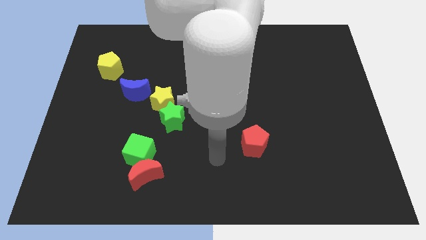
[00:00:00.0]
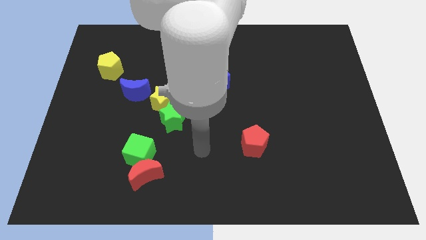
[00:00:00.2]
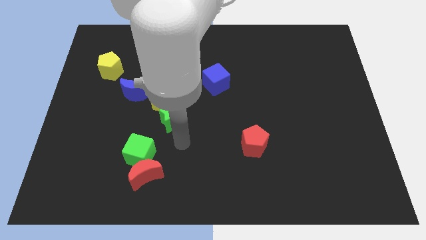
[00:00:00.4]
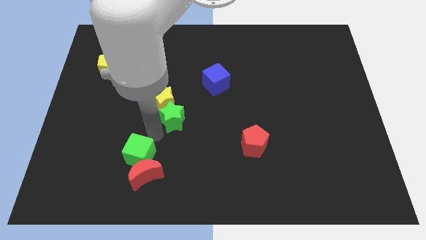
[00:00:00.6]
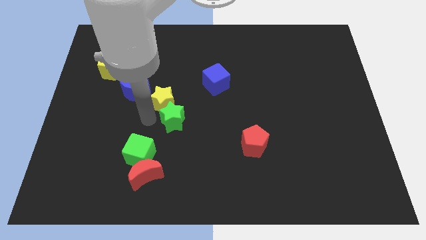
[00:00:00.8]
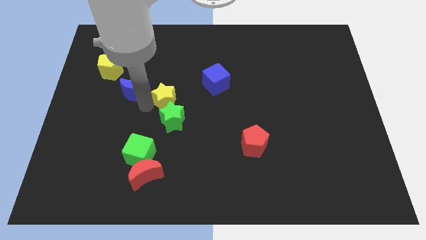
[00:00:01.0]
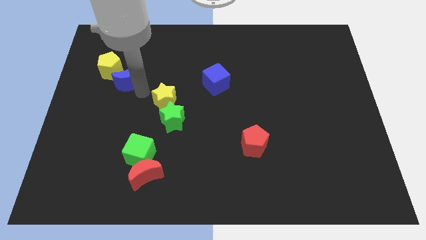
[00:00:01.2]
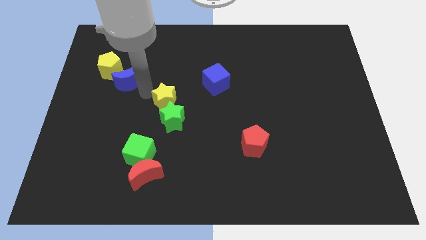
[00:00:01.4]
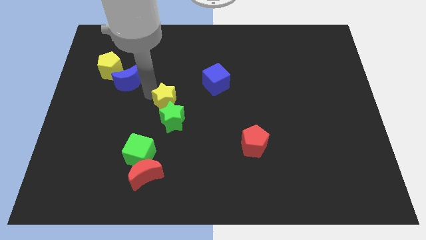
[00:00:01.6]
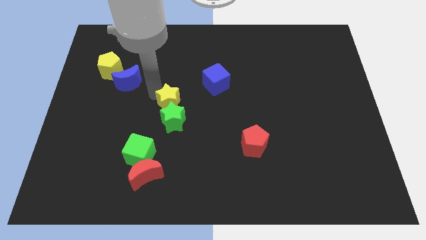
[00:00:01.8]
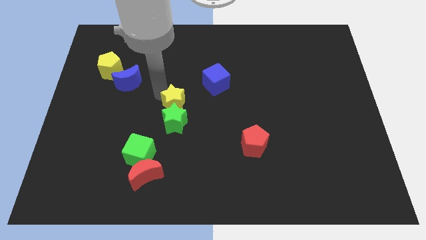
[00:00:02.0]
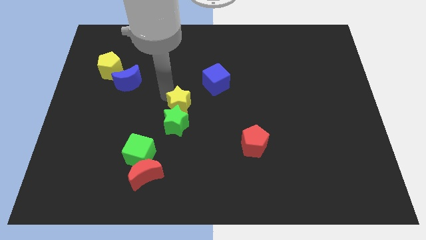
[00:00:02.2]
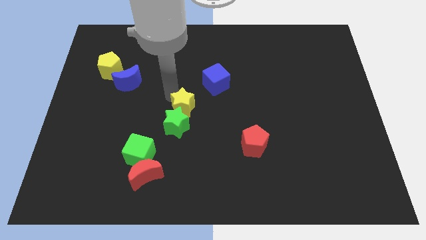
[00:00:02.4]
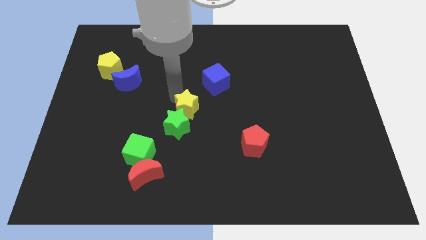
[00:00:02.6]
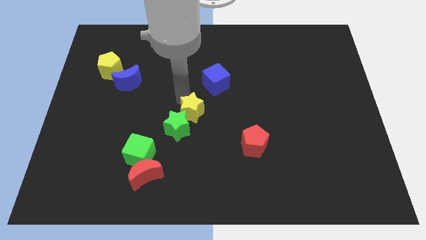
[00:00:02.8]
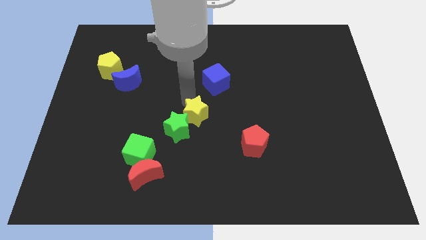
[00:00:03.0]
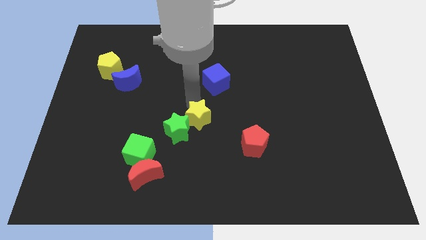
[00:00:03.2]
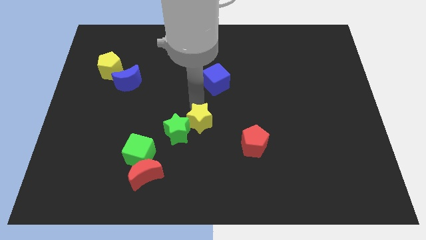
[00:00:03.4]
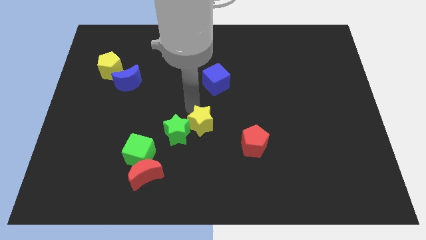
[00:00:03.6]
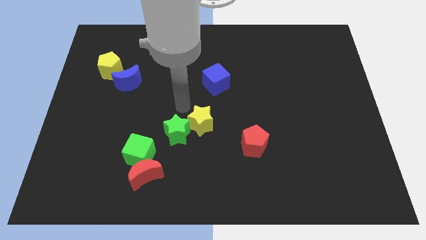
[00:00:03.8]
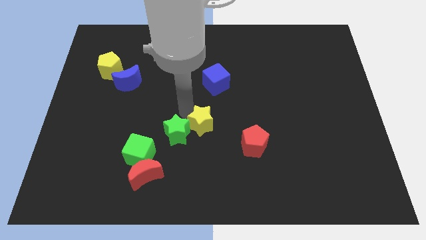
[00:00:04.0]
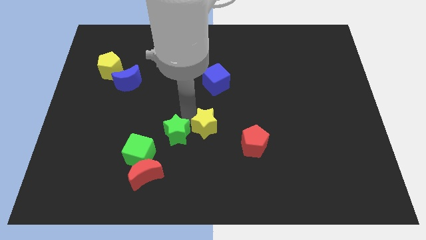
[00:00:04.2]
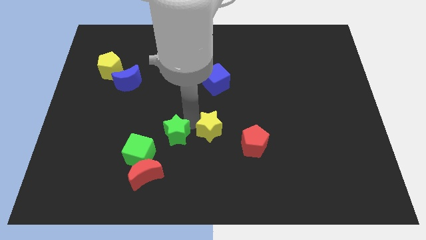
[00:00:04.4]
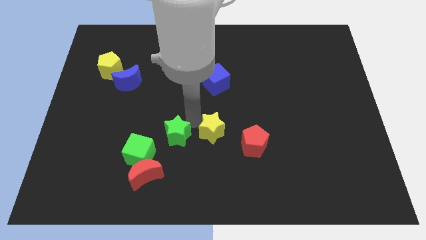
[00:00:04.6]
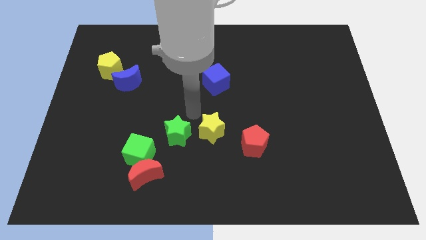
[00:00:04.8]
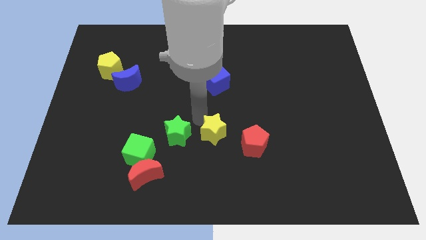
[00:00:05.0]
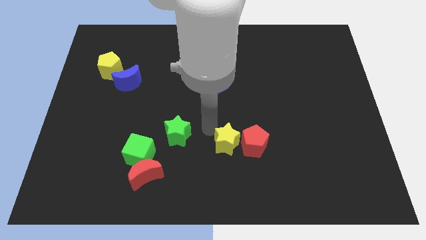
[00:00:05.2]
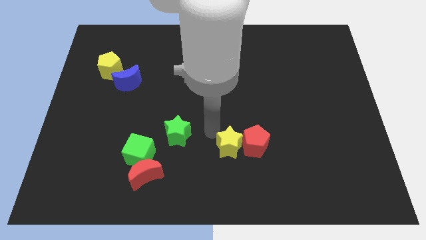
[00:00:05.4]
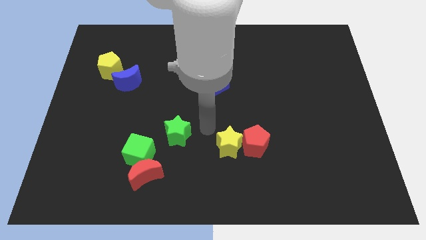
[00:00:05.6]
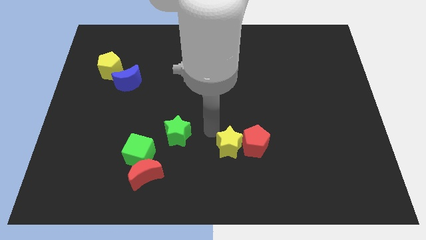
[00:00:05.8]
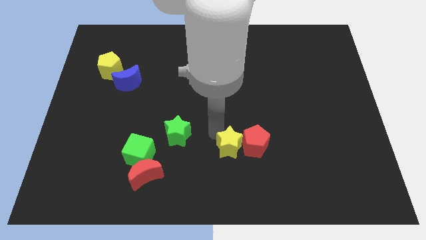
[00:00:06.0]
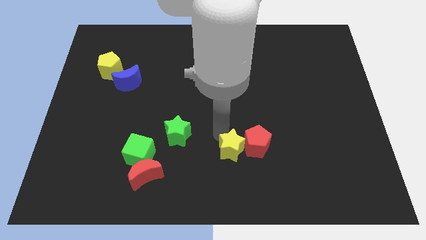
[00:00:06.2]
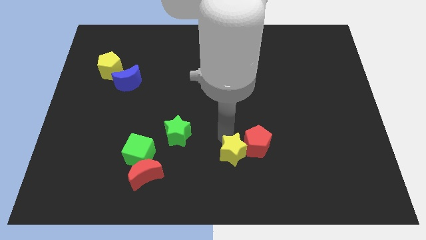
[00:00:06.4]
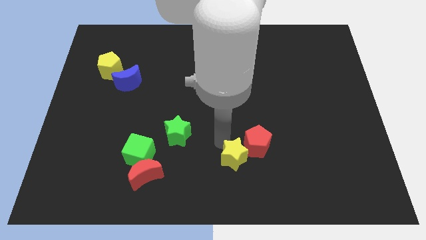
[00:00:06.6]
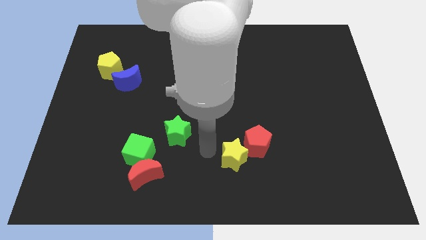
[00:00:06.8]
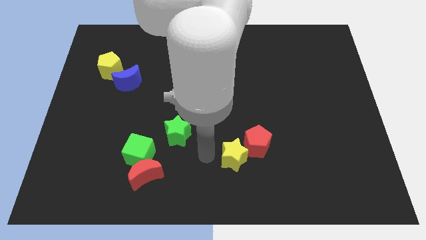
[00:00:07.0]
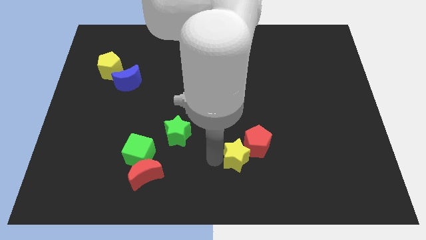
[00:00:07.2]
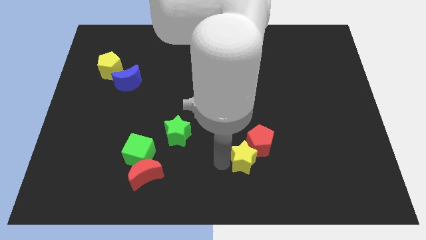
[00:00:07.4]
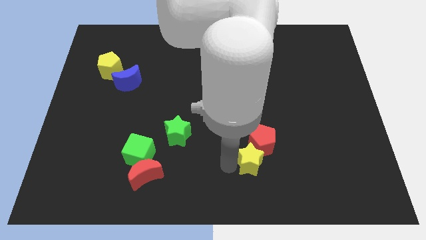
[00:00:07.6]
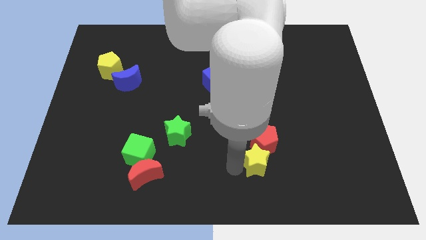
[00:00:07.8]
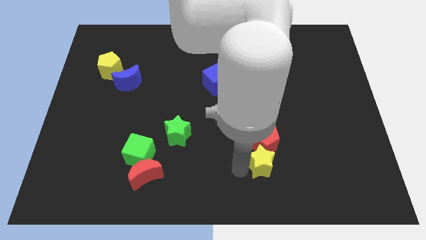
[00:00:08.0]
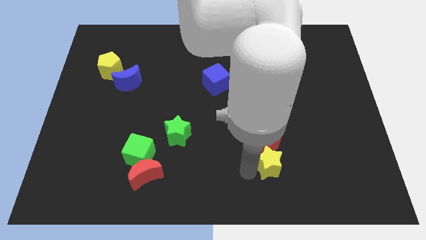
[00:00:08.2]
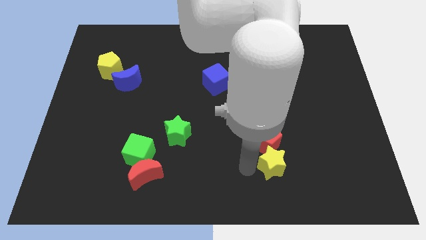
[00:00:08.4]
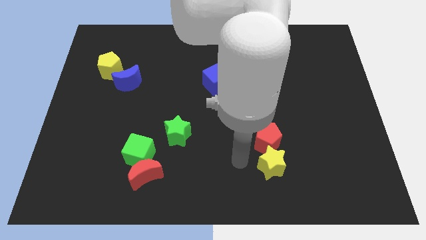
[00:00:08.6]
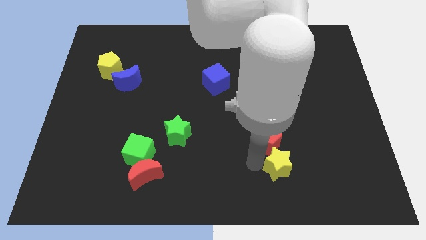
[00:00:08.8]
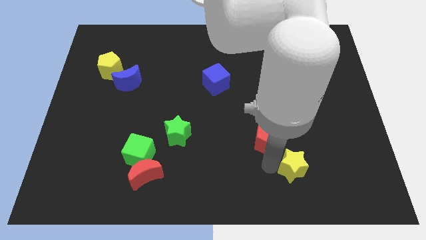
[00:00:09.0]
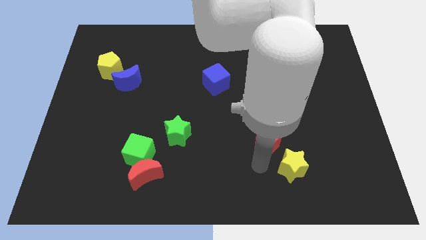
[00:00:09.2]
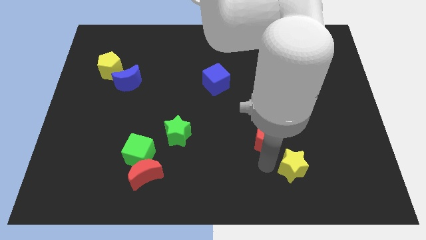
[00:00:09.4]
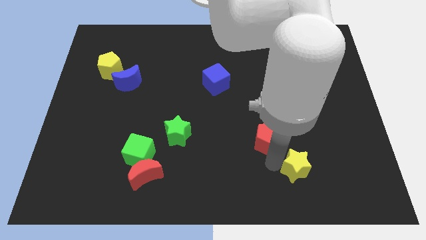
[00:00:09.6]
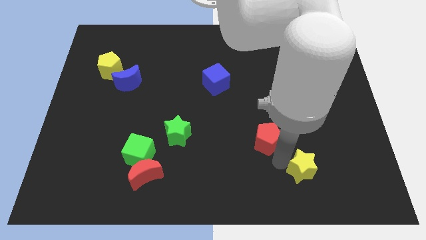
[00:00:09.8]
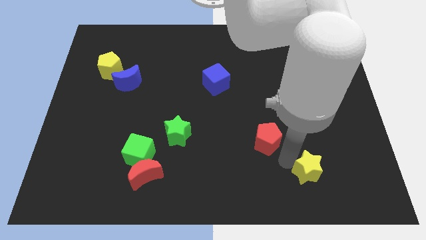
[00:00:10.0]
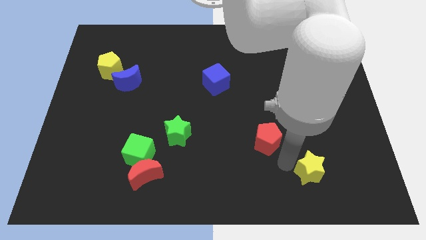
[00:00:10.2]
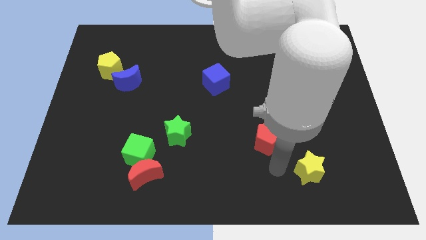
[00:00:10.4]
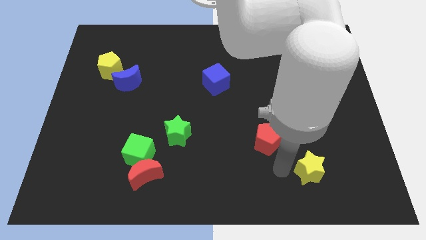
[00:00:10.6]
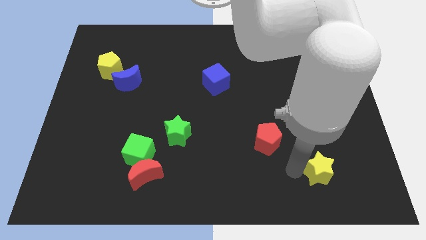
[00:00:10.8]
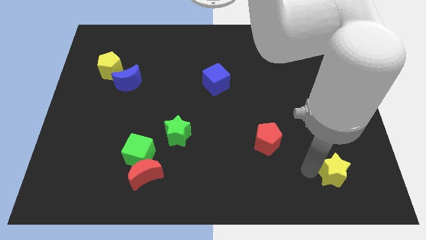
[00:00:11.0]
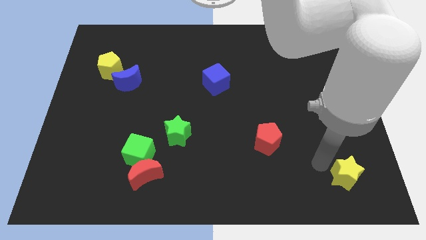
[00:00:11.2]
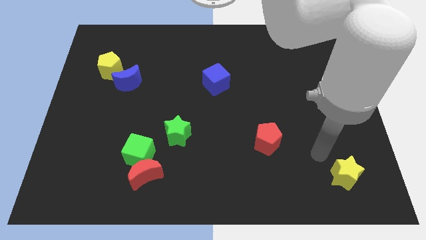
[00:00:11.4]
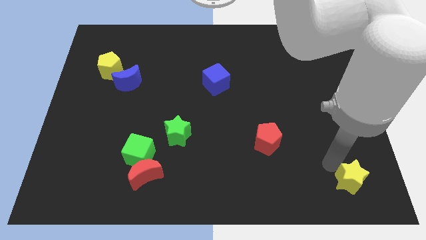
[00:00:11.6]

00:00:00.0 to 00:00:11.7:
move the yellow star to the bottom right corner

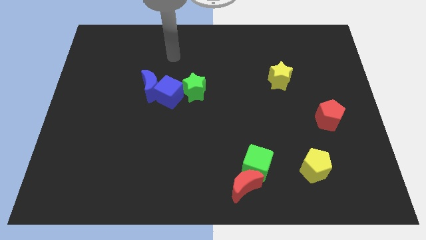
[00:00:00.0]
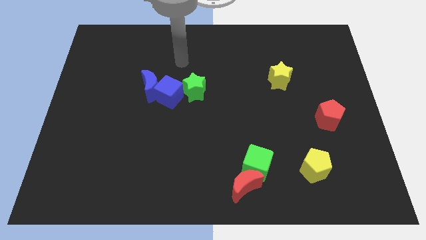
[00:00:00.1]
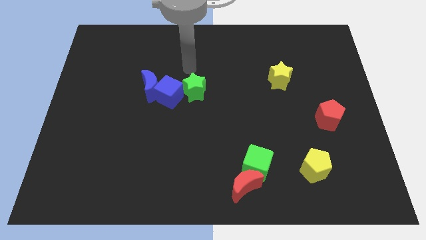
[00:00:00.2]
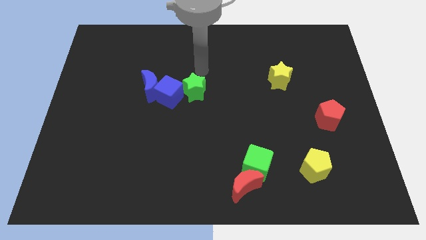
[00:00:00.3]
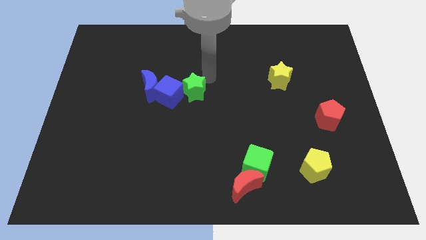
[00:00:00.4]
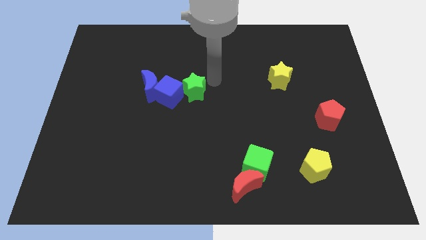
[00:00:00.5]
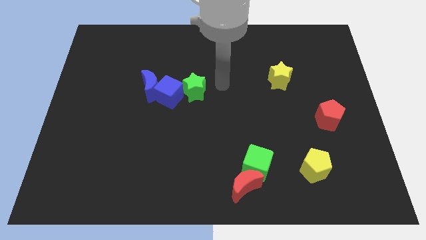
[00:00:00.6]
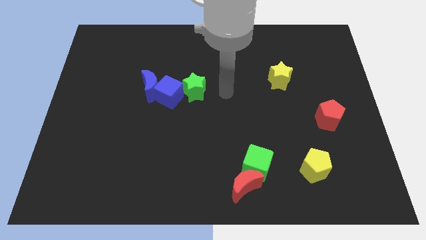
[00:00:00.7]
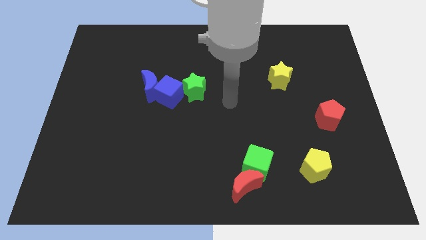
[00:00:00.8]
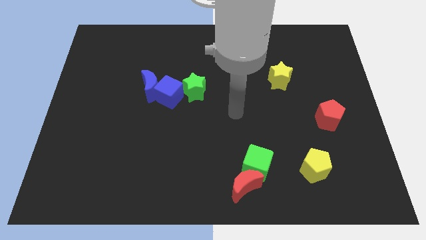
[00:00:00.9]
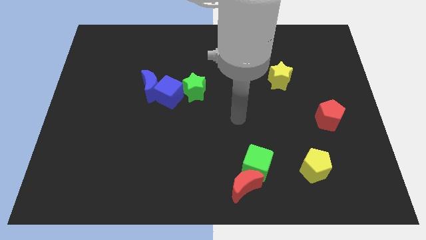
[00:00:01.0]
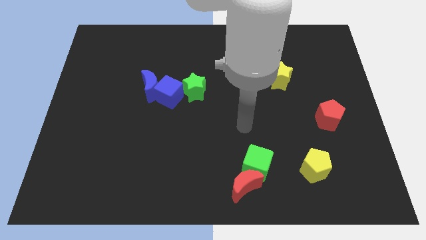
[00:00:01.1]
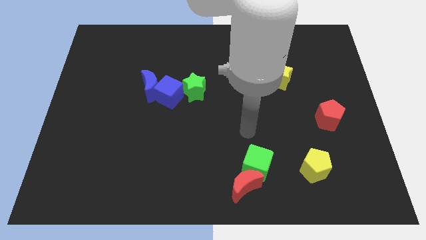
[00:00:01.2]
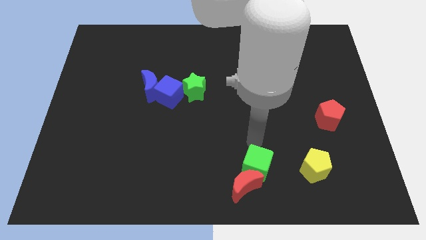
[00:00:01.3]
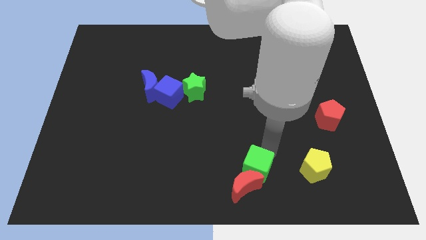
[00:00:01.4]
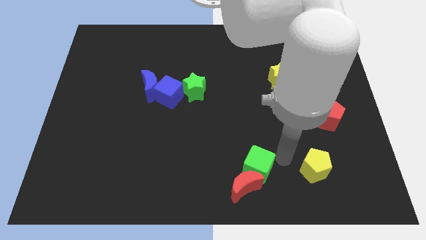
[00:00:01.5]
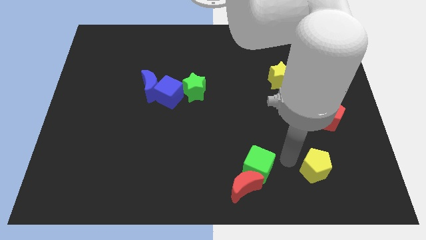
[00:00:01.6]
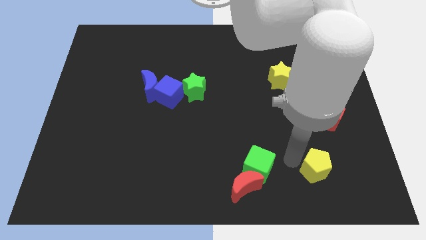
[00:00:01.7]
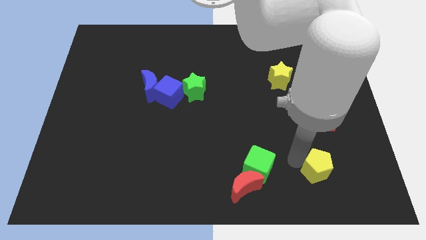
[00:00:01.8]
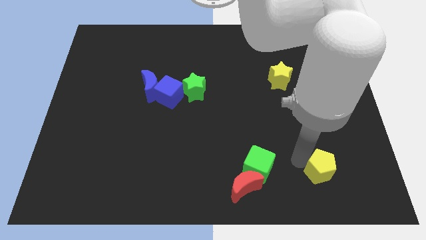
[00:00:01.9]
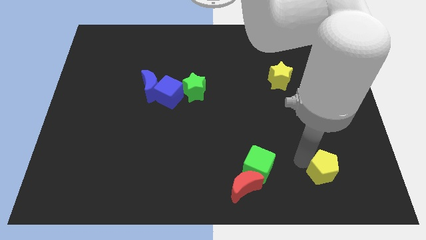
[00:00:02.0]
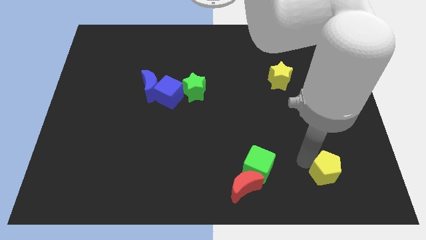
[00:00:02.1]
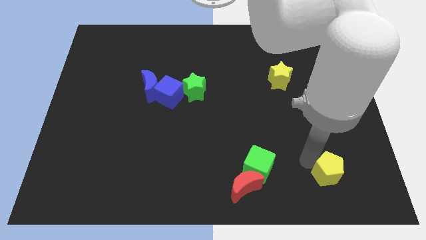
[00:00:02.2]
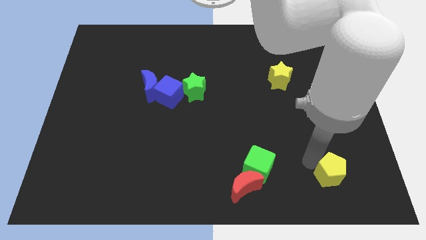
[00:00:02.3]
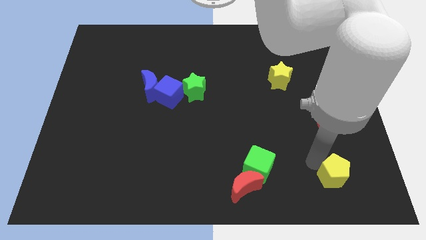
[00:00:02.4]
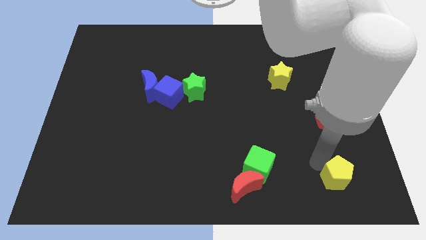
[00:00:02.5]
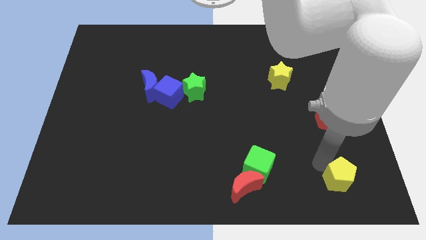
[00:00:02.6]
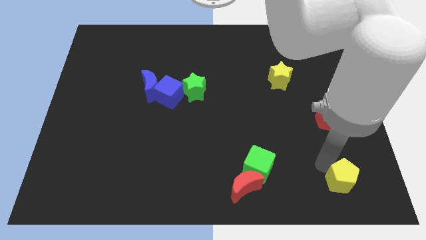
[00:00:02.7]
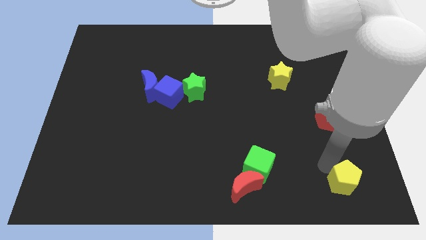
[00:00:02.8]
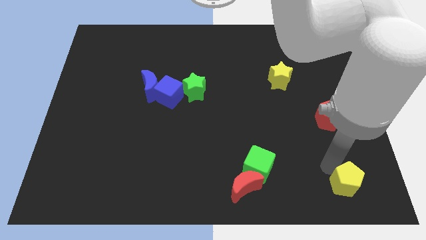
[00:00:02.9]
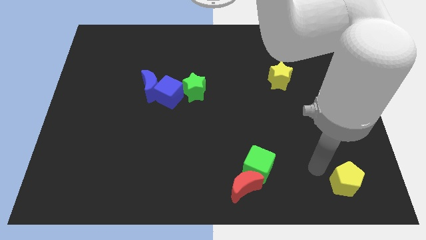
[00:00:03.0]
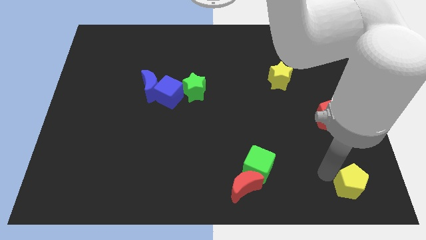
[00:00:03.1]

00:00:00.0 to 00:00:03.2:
move the yellow pentagon to the lower right corner
